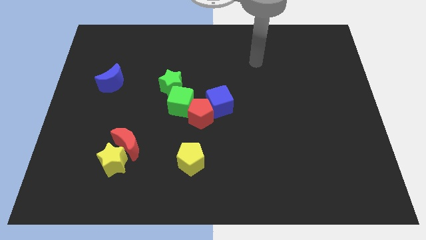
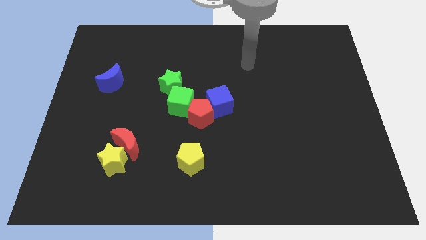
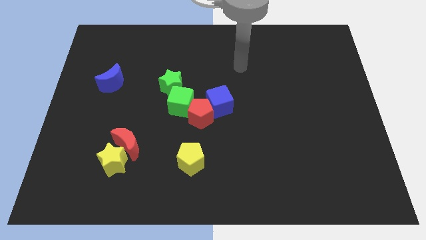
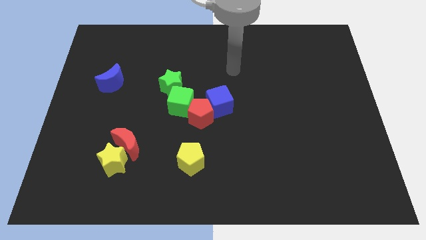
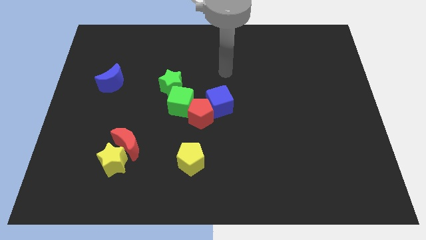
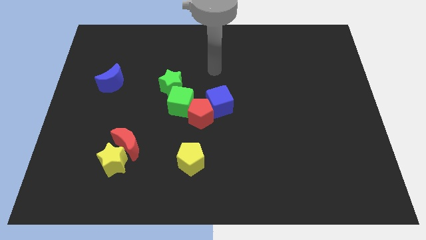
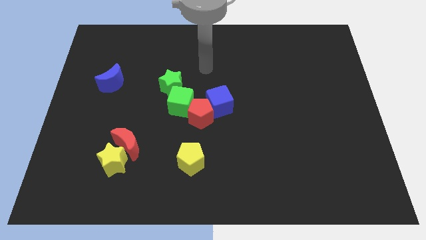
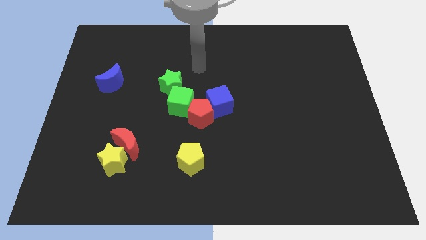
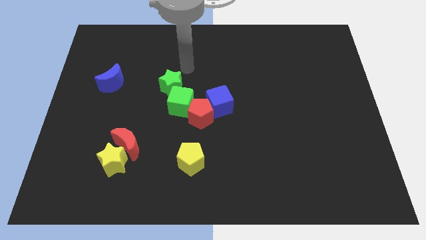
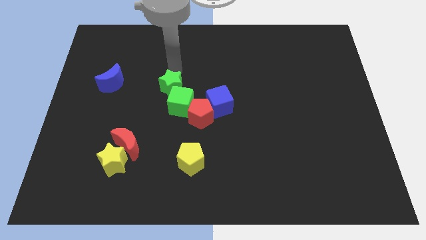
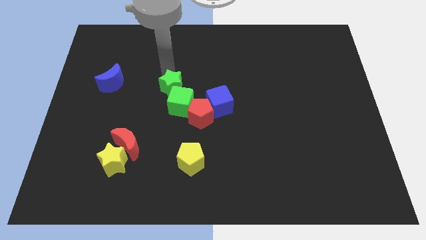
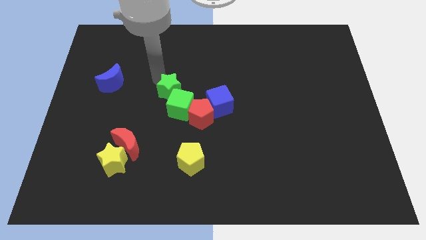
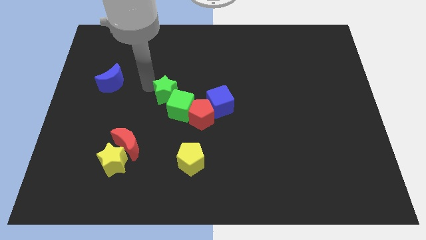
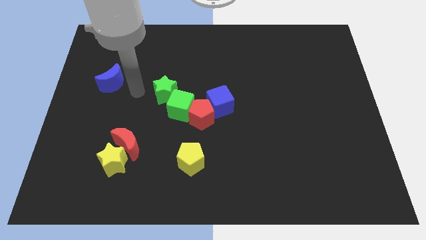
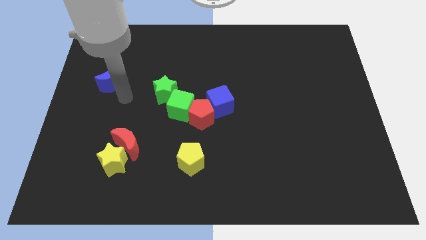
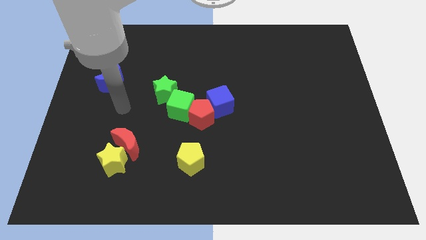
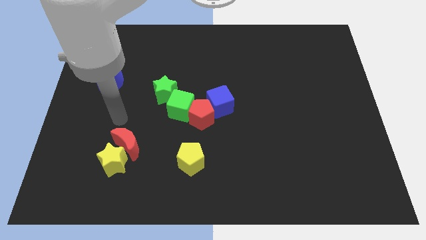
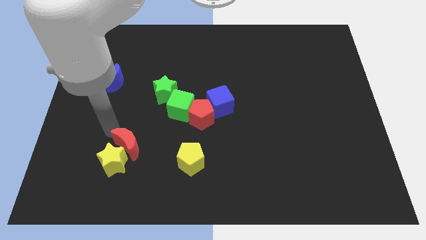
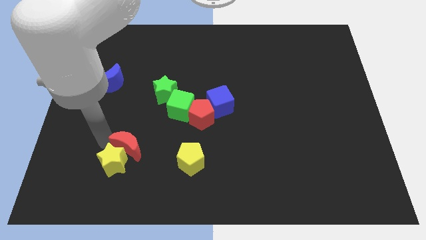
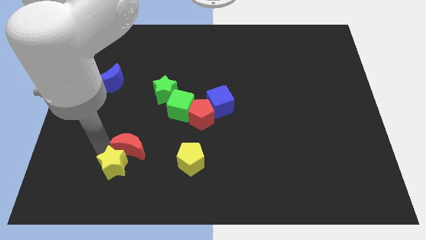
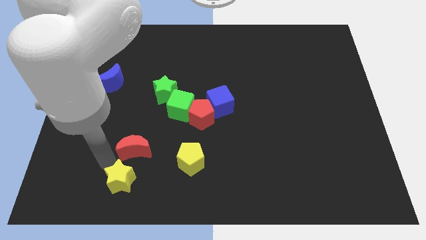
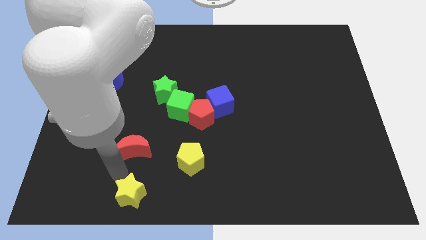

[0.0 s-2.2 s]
separate the red moon from the yellow star

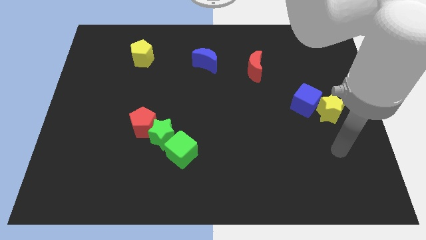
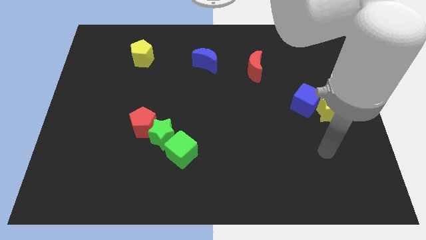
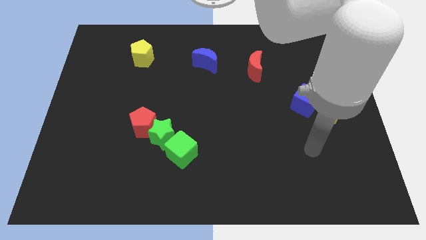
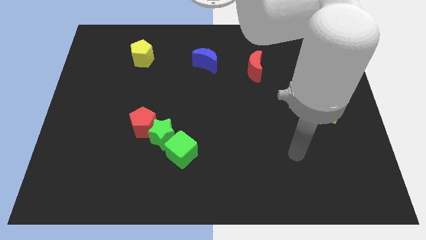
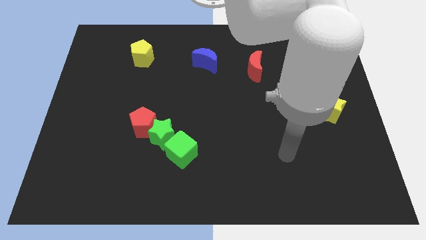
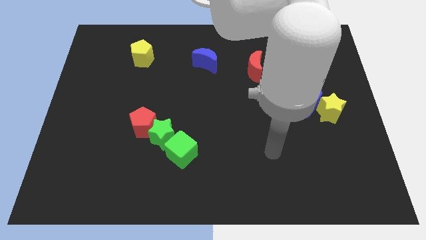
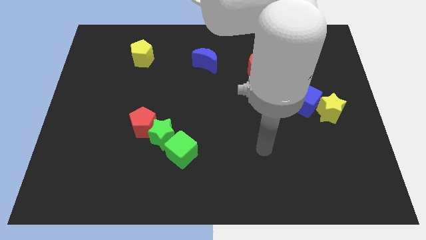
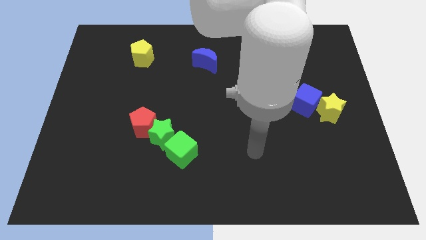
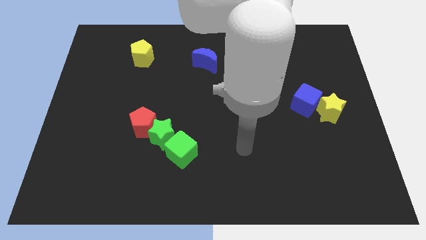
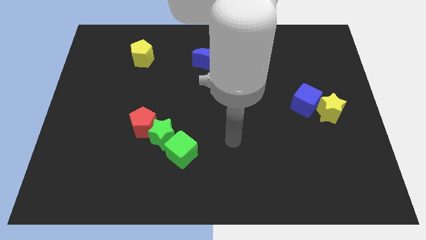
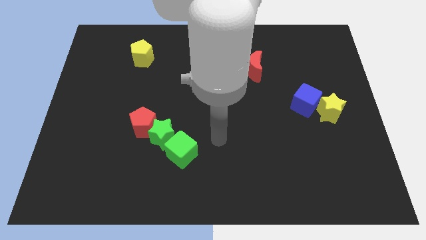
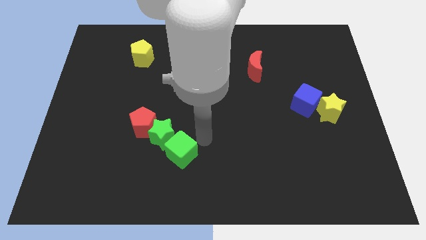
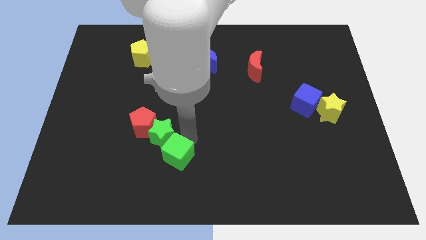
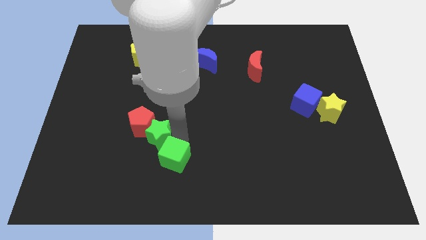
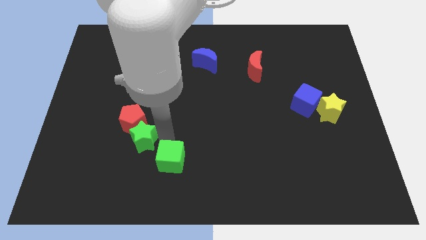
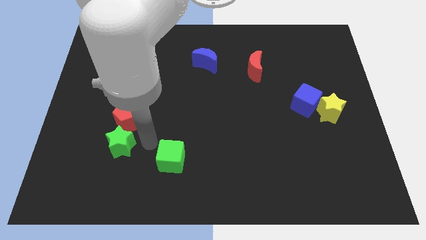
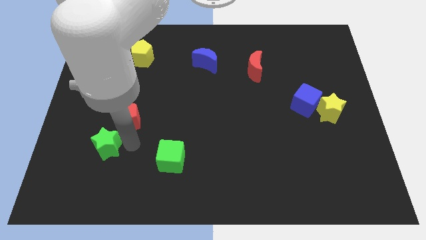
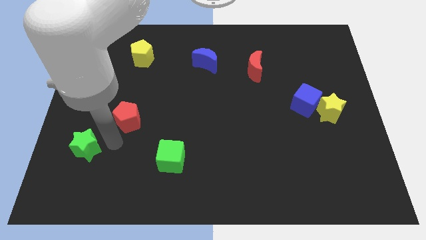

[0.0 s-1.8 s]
pull the red pentagon apart from the green star

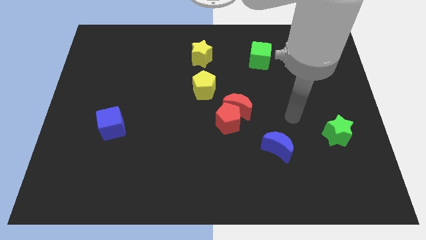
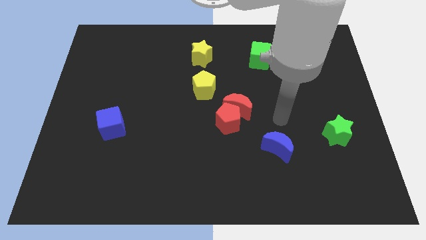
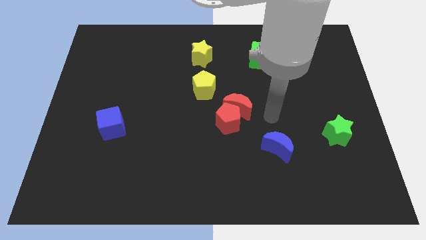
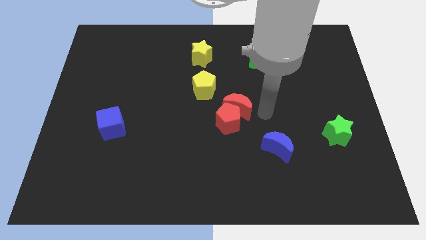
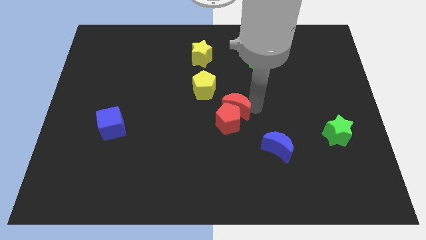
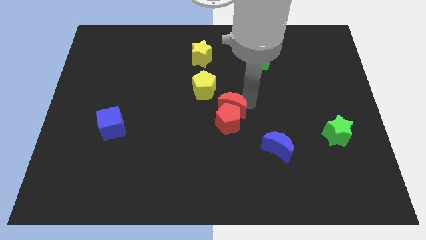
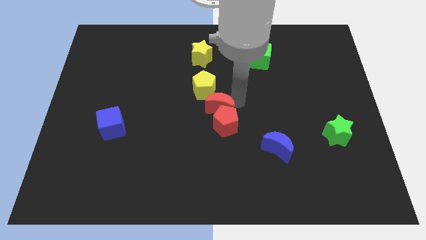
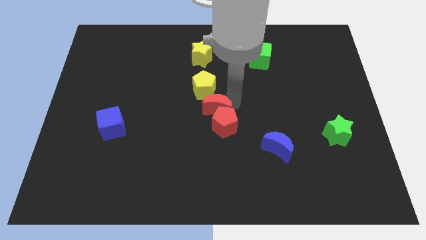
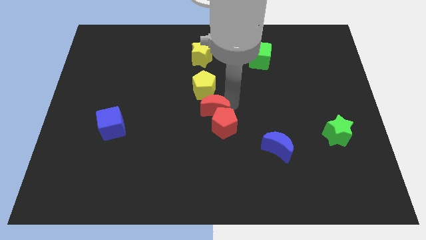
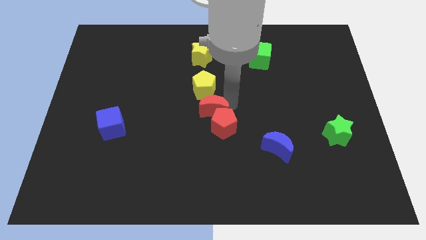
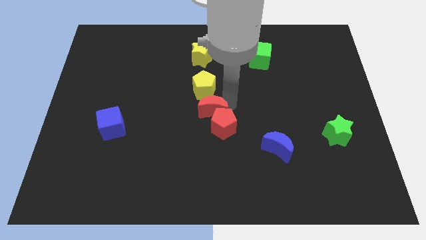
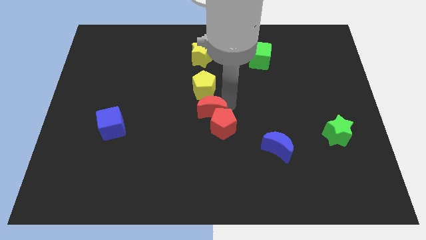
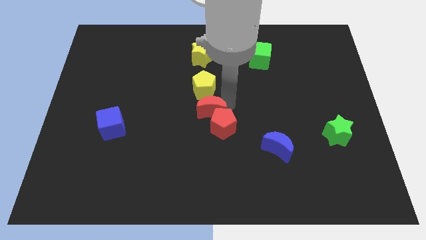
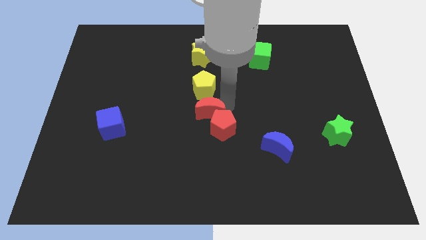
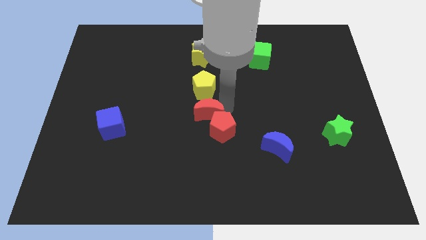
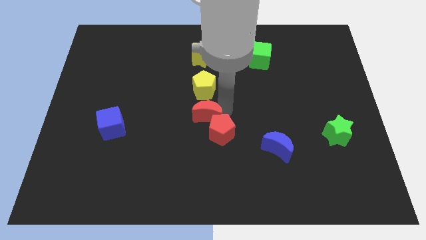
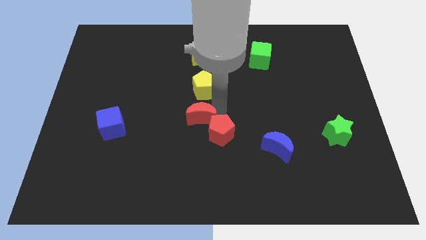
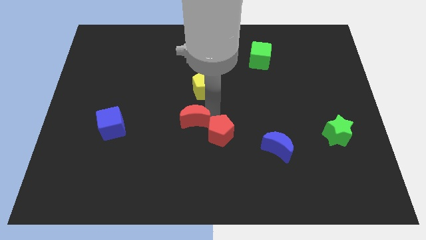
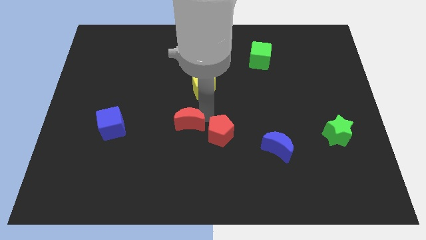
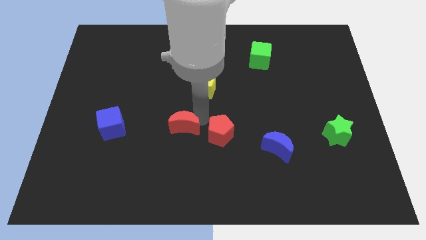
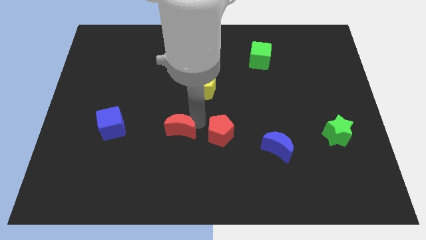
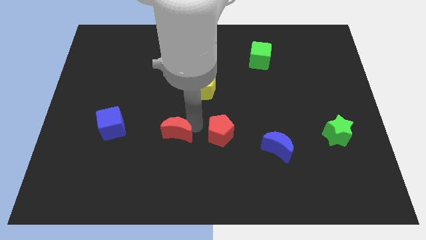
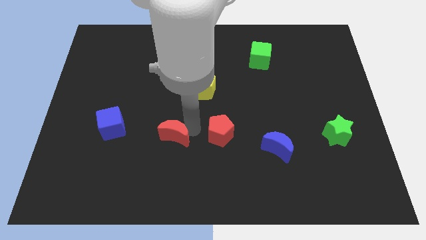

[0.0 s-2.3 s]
move the red pentagon away from the red moon

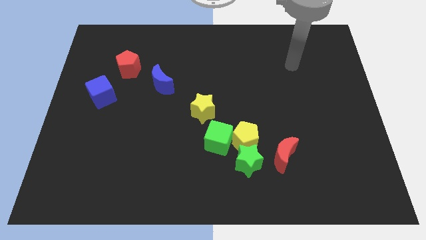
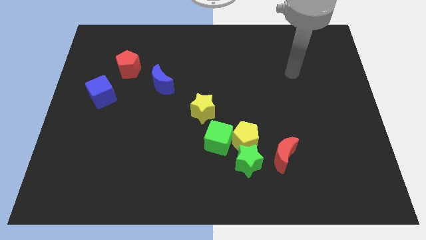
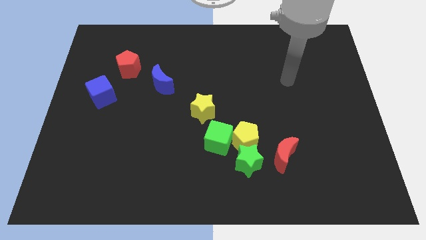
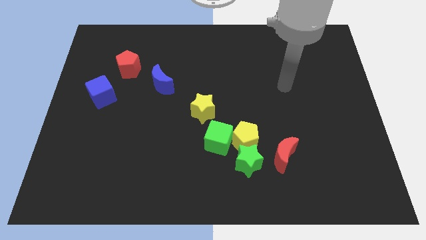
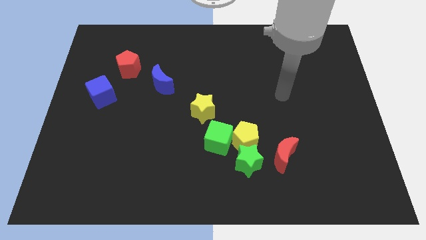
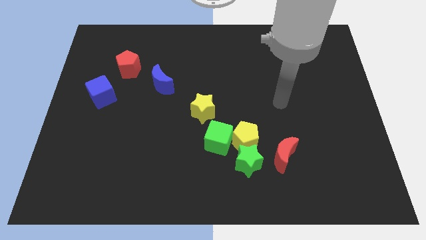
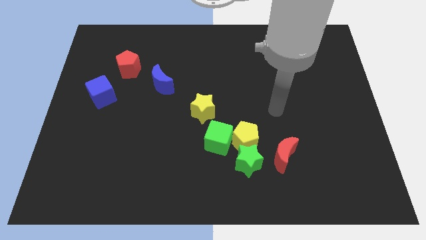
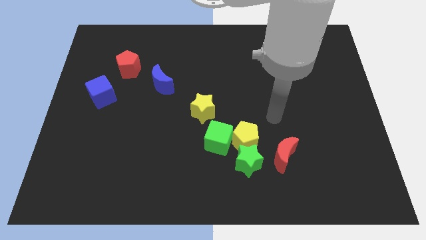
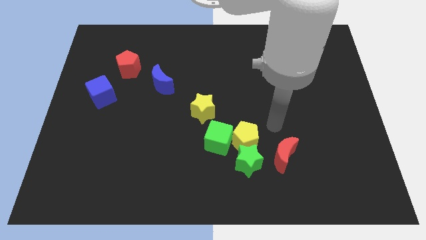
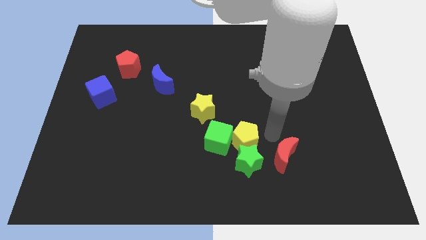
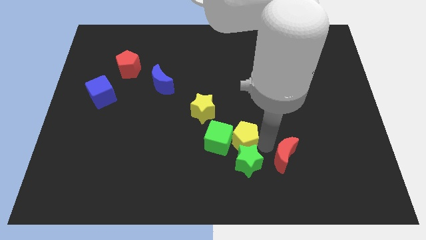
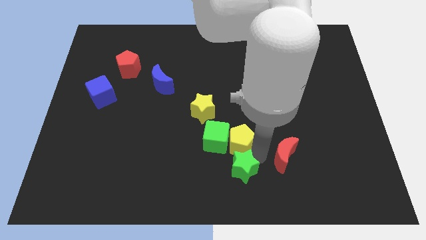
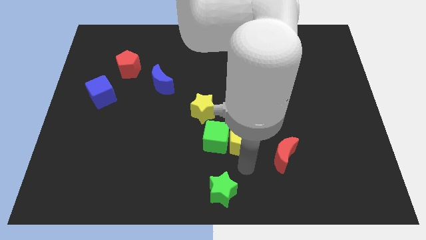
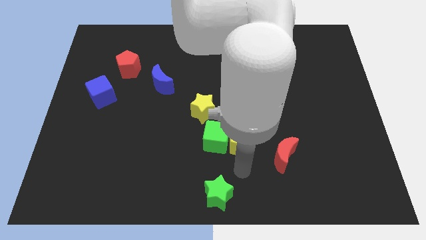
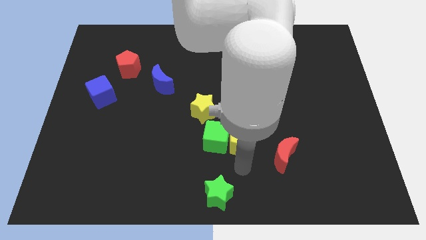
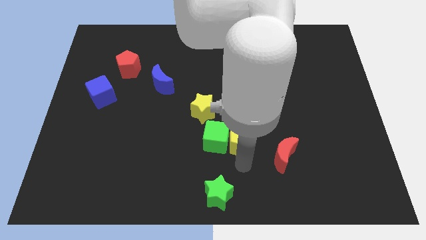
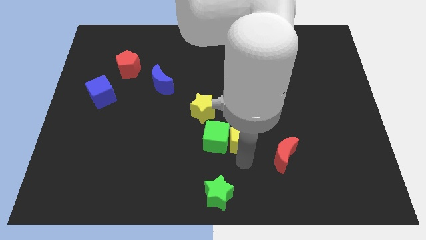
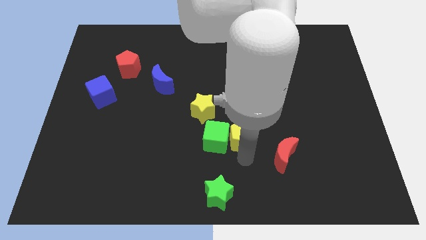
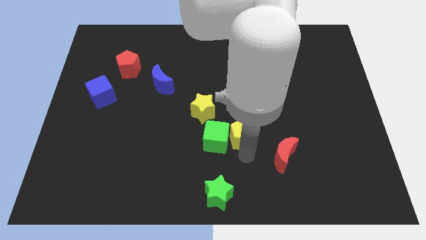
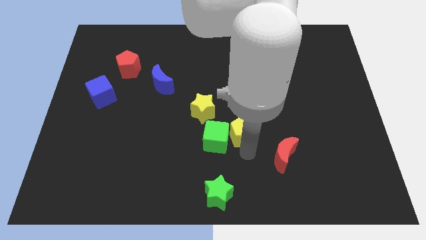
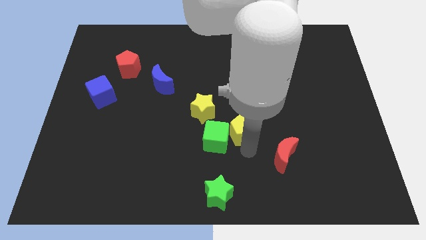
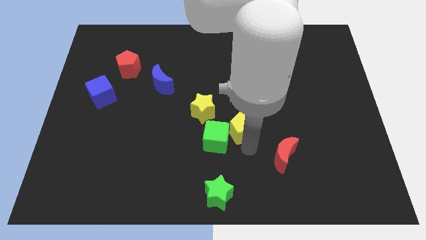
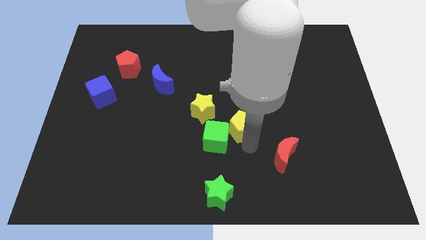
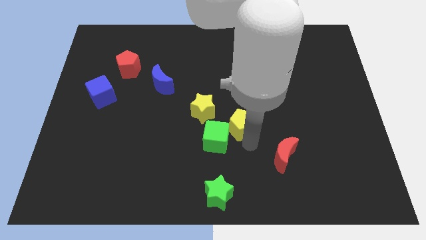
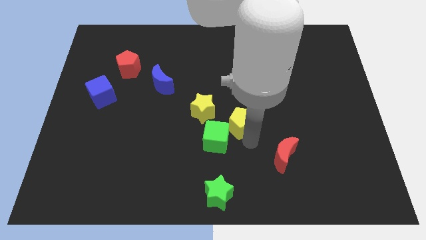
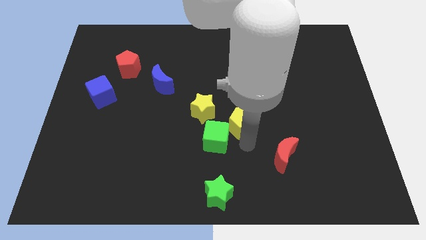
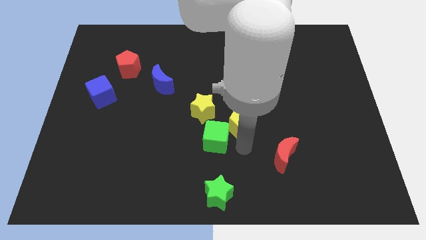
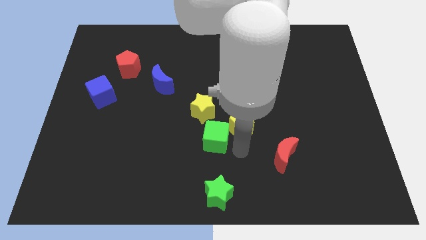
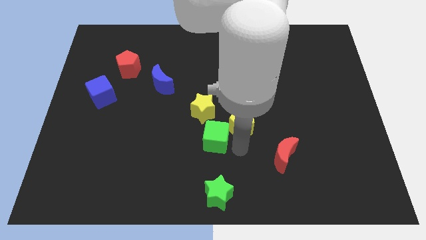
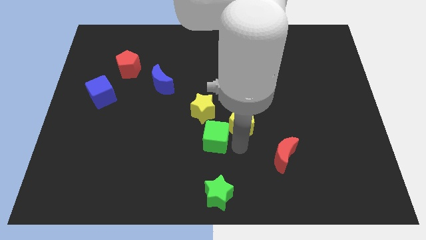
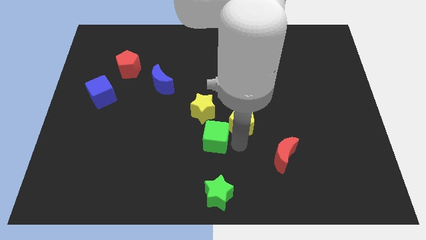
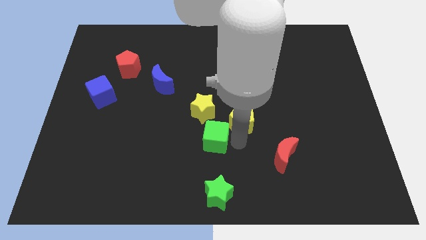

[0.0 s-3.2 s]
move the yellow pentagon away from the green star, green cube, and red moon

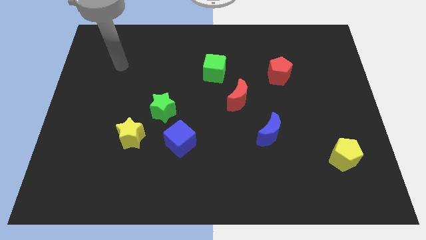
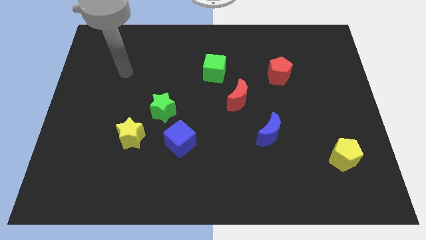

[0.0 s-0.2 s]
move the yellow star away from the green star
